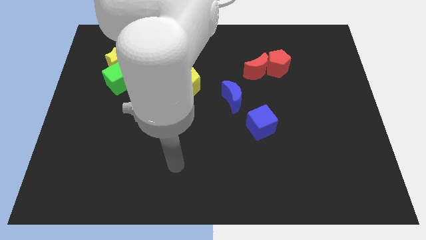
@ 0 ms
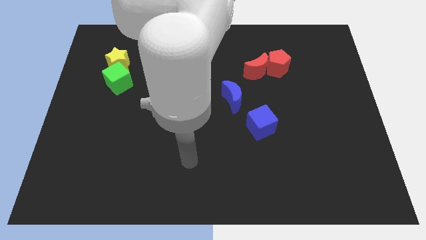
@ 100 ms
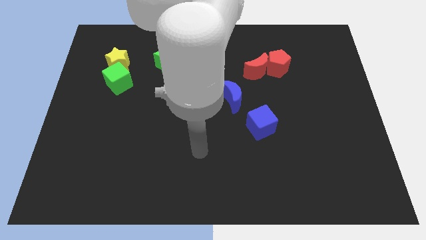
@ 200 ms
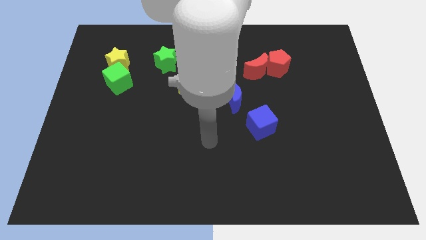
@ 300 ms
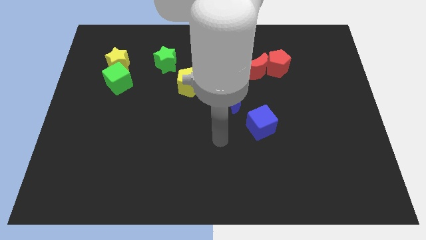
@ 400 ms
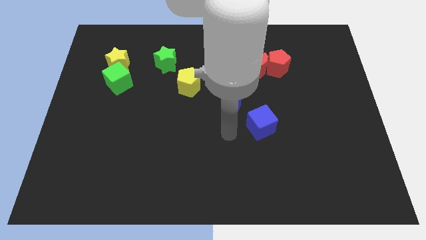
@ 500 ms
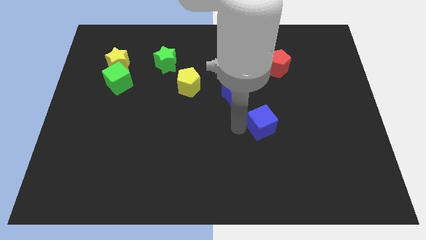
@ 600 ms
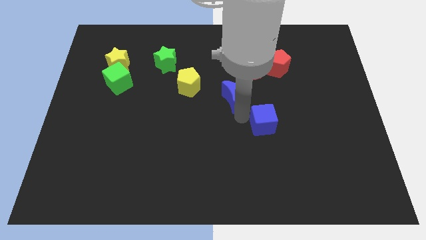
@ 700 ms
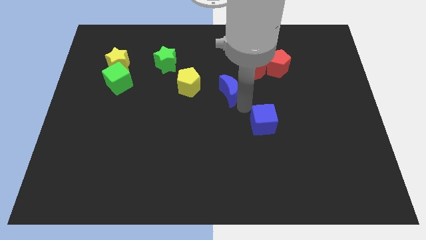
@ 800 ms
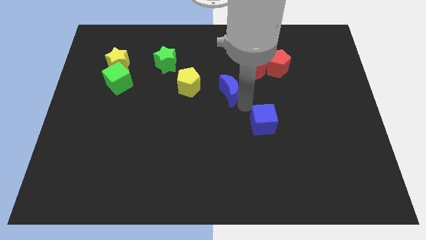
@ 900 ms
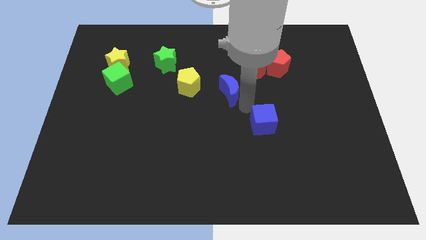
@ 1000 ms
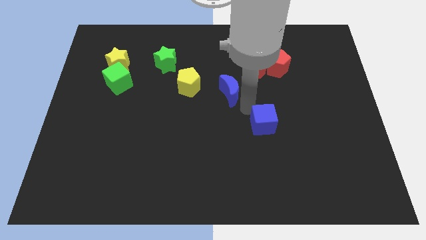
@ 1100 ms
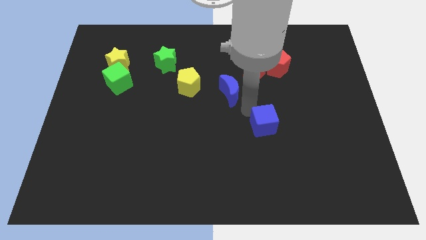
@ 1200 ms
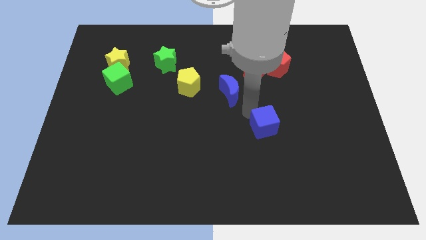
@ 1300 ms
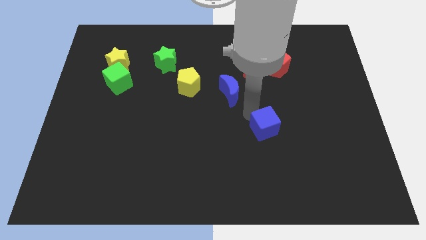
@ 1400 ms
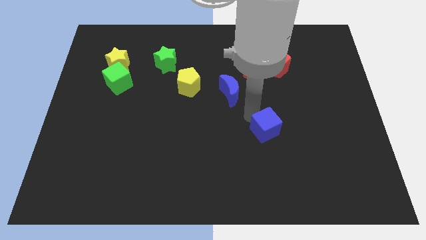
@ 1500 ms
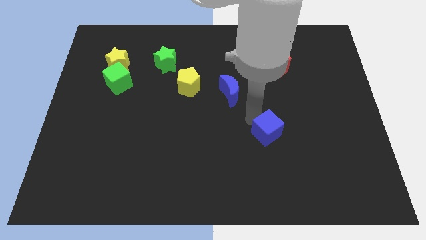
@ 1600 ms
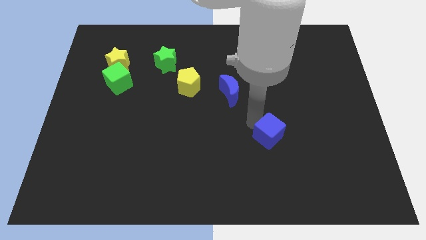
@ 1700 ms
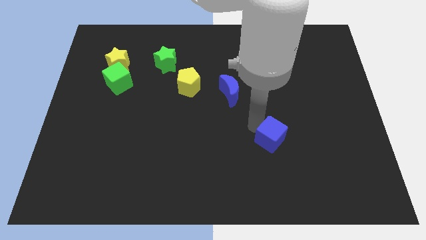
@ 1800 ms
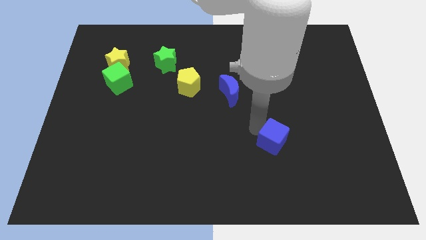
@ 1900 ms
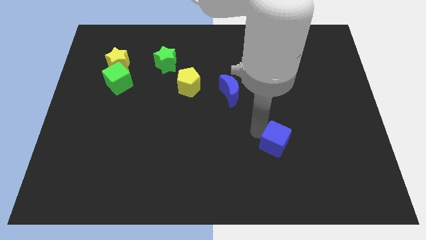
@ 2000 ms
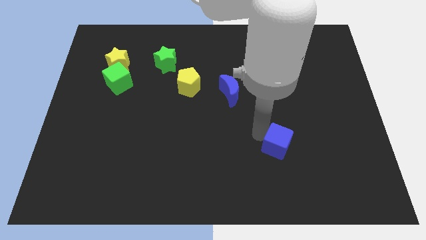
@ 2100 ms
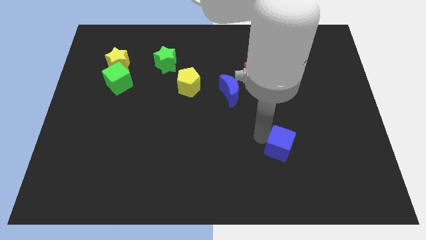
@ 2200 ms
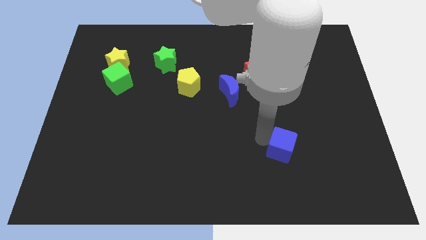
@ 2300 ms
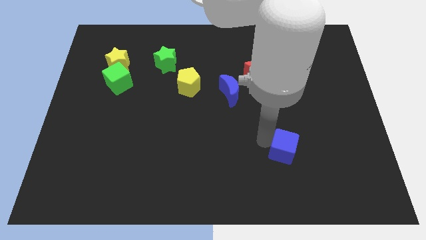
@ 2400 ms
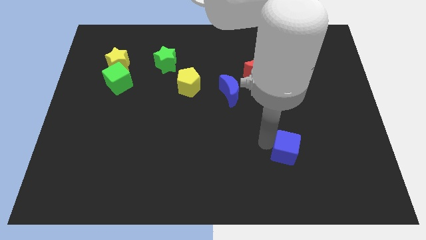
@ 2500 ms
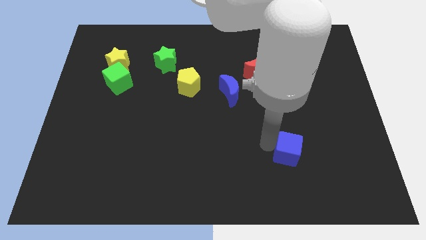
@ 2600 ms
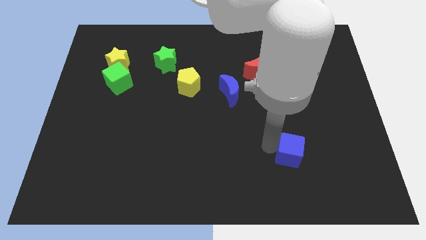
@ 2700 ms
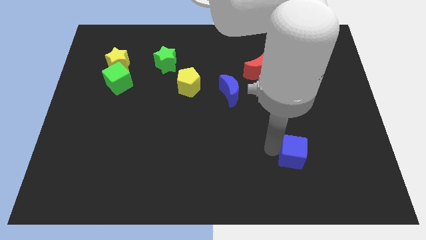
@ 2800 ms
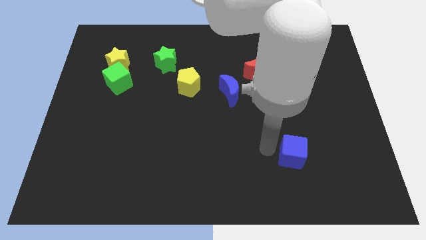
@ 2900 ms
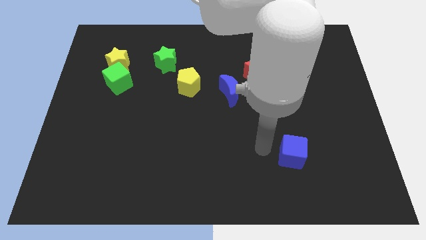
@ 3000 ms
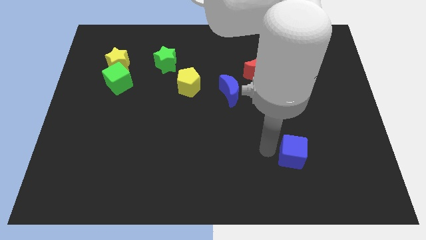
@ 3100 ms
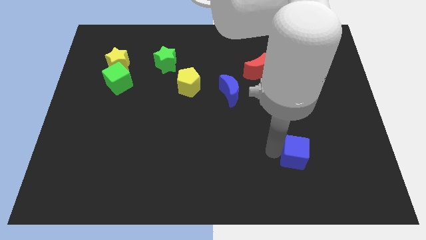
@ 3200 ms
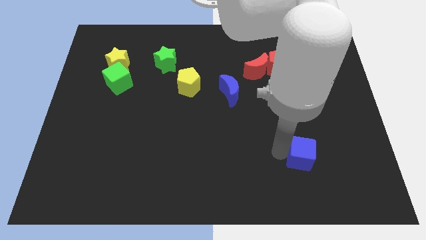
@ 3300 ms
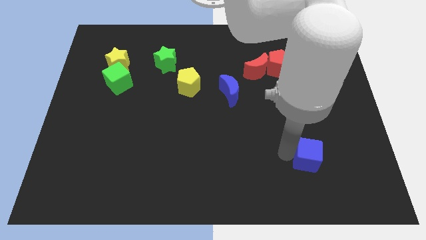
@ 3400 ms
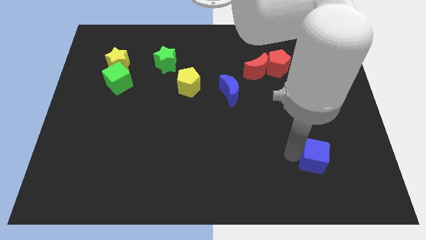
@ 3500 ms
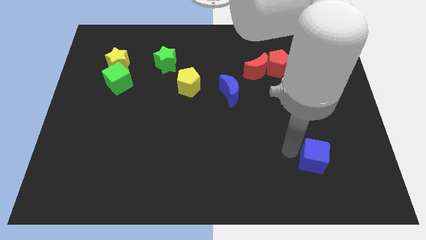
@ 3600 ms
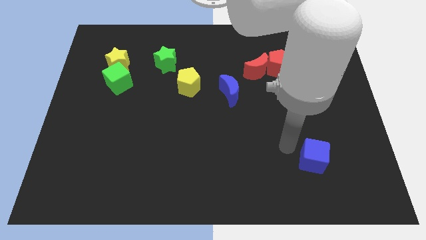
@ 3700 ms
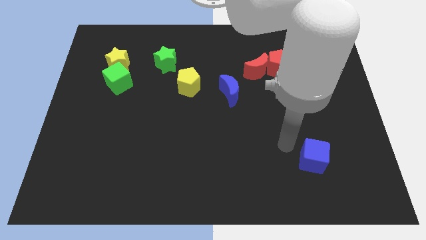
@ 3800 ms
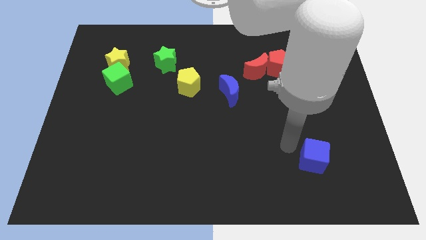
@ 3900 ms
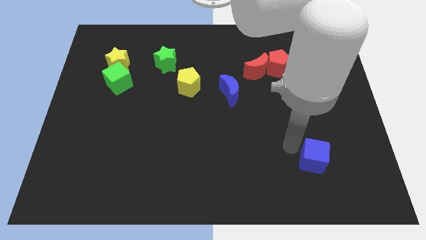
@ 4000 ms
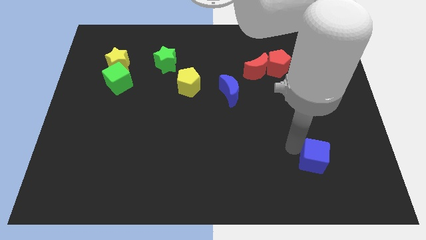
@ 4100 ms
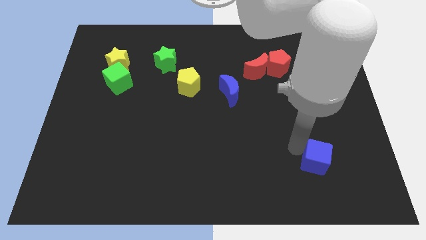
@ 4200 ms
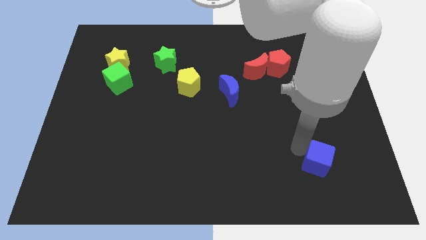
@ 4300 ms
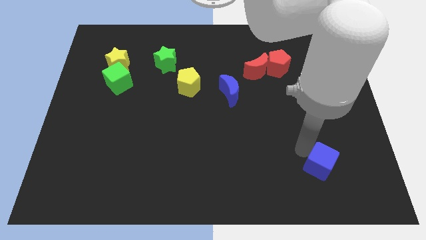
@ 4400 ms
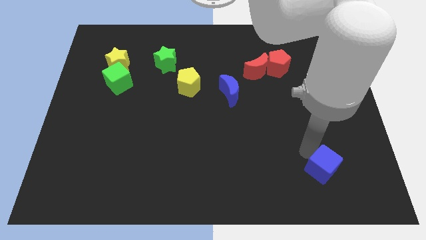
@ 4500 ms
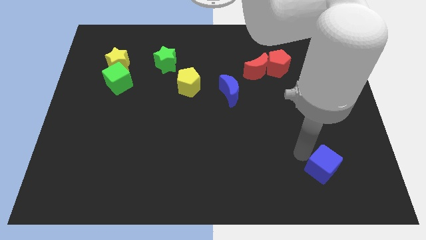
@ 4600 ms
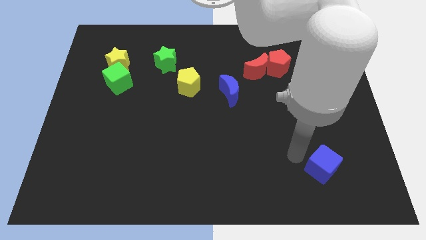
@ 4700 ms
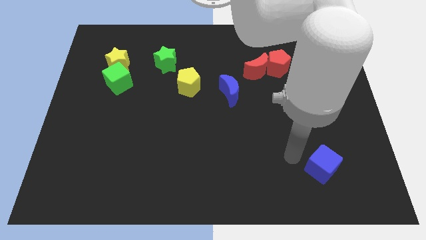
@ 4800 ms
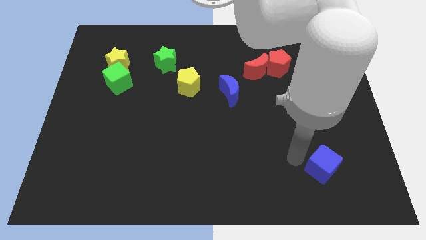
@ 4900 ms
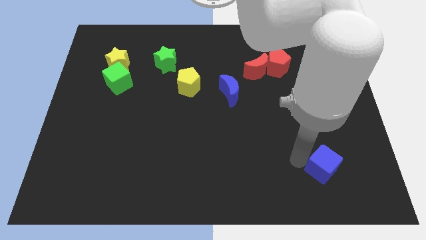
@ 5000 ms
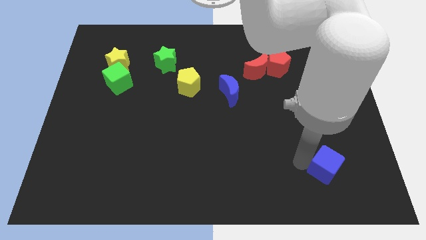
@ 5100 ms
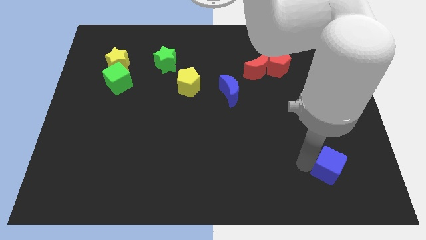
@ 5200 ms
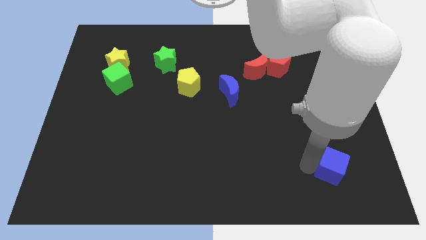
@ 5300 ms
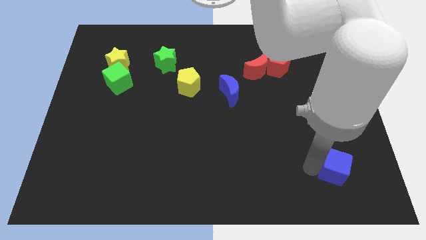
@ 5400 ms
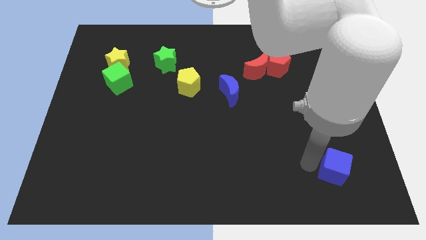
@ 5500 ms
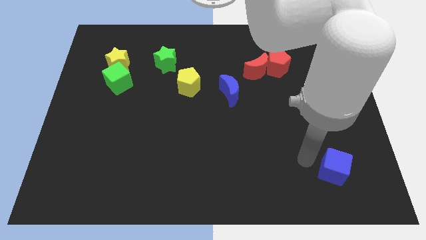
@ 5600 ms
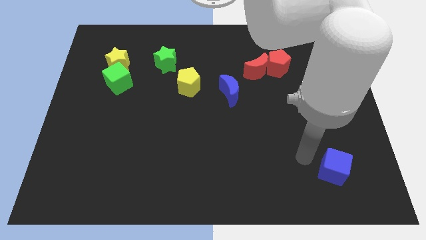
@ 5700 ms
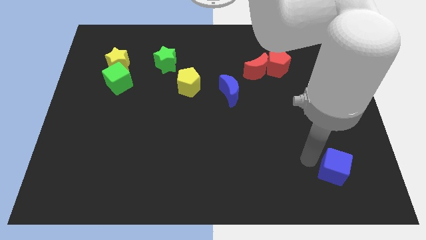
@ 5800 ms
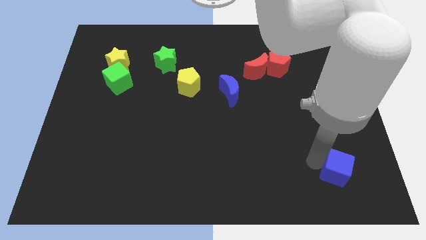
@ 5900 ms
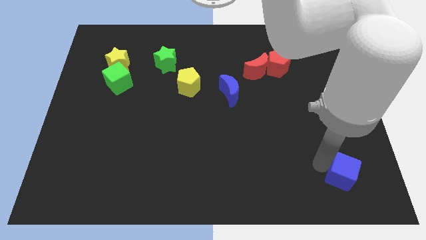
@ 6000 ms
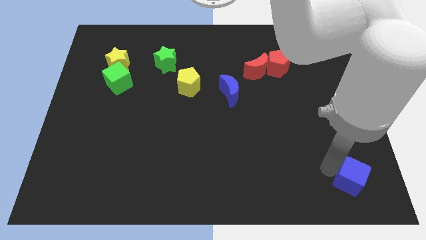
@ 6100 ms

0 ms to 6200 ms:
push the blue cube to the bottom right corner
